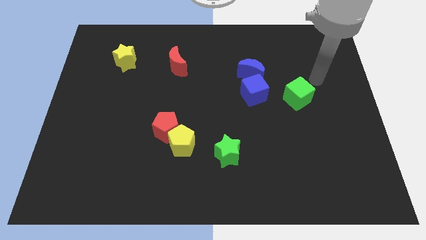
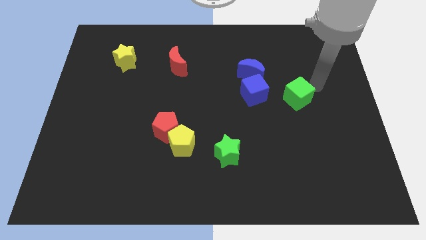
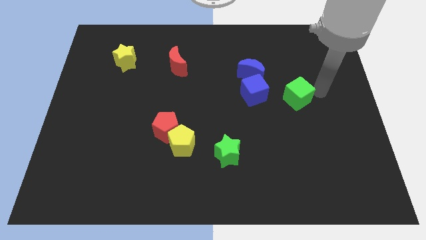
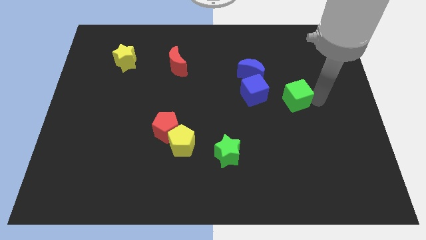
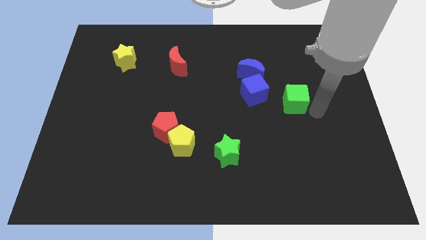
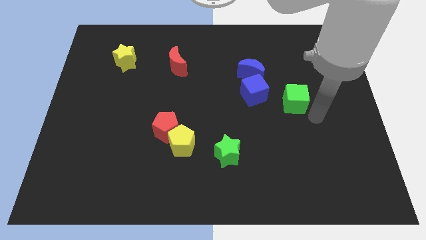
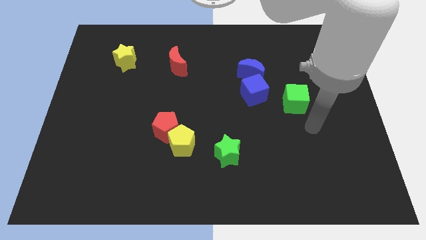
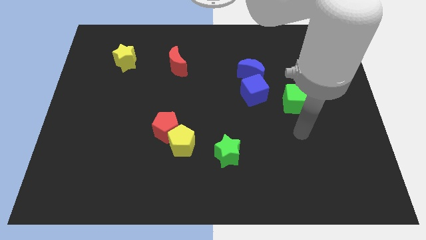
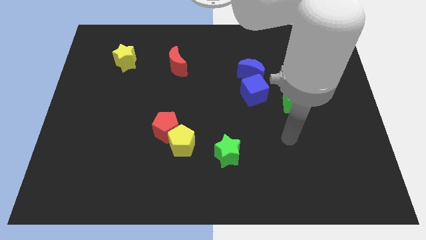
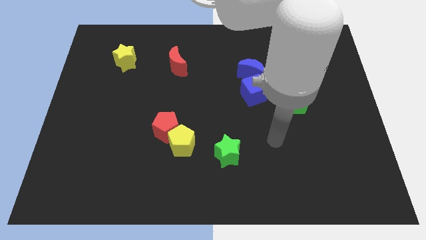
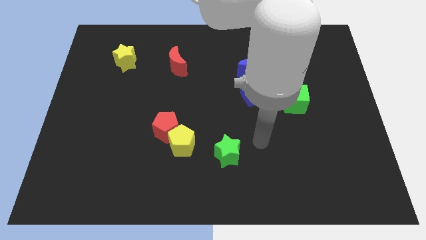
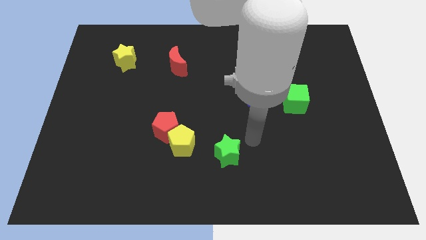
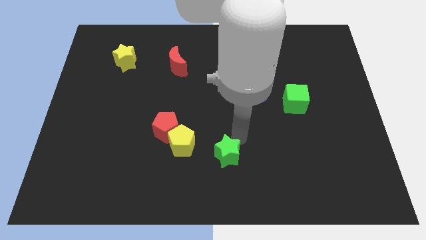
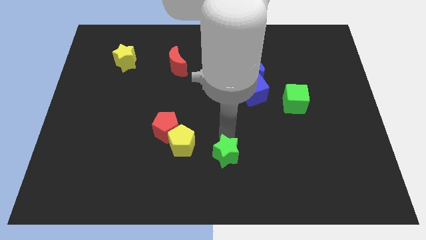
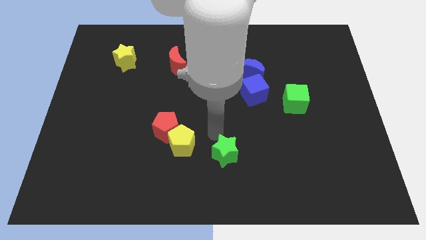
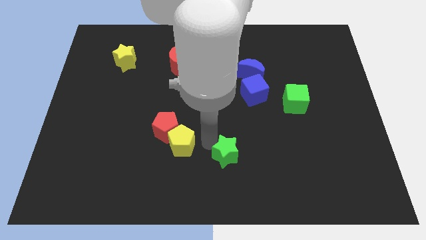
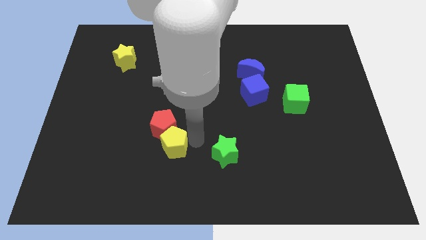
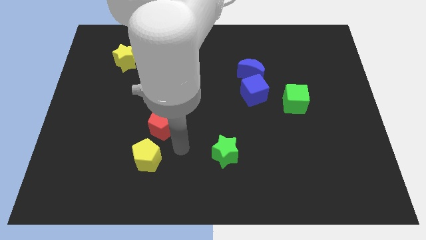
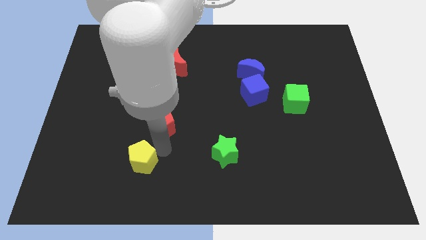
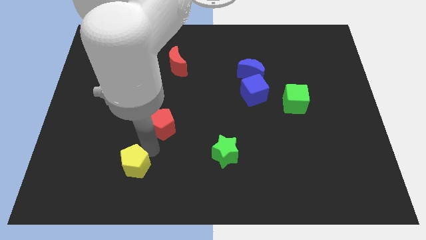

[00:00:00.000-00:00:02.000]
separate the red pentagon from the yellow pentagon

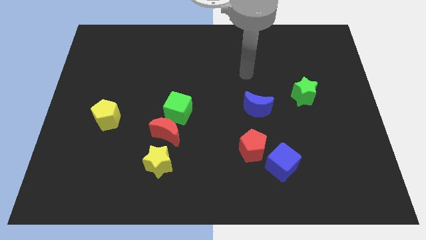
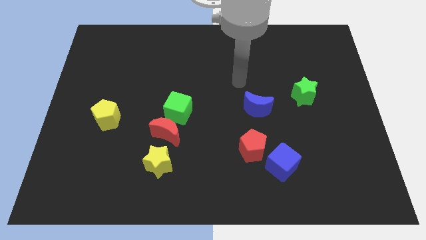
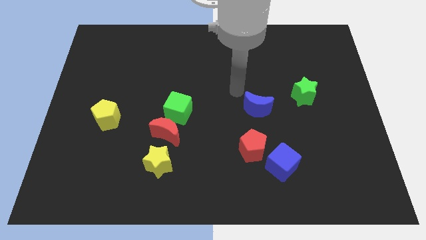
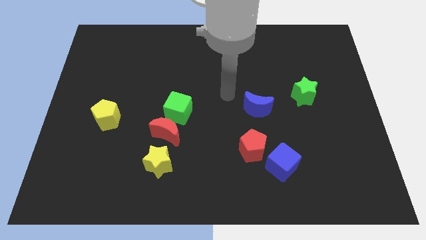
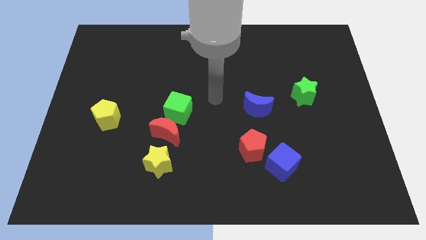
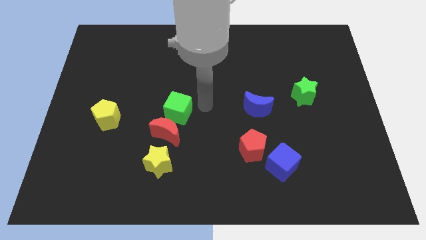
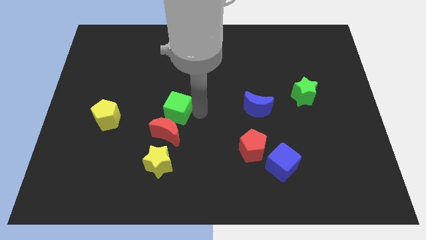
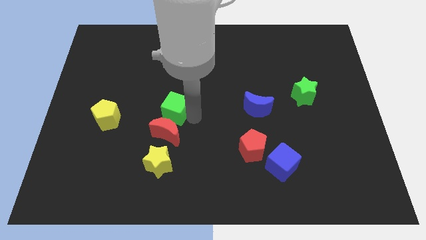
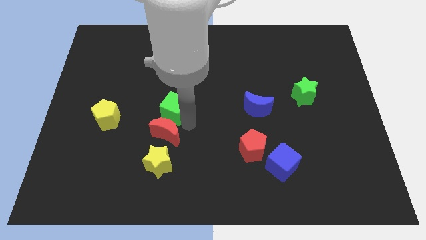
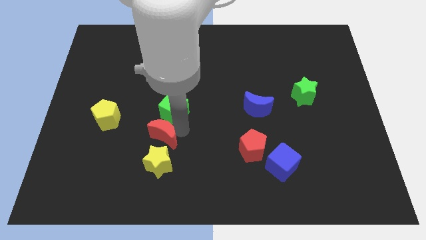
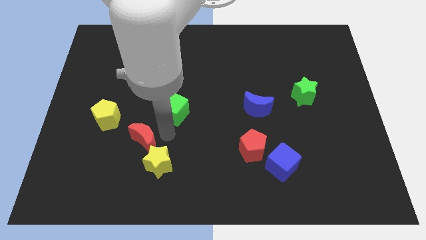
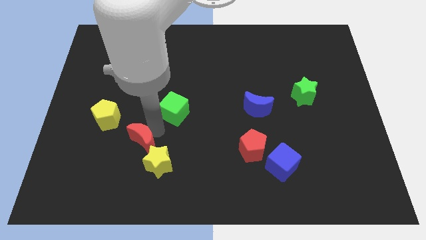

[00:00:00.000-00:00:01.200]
pull the green cube apart from the red moon

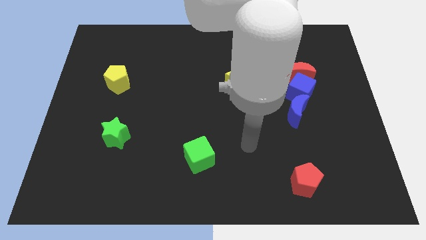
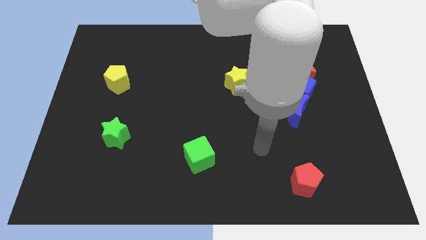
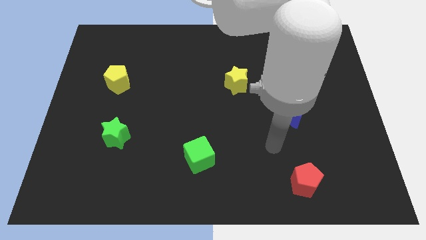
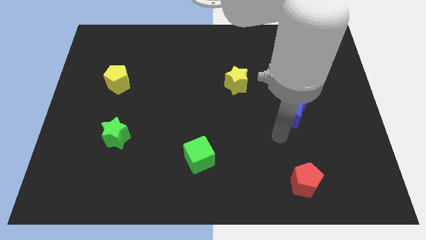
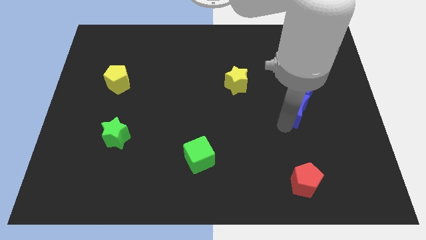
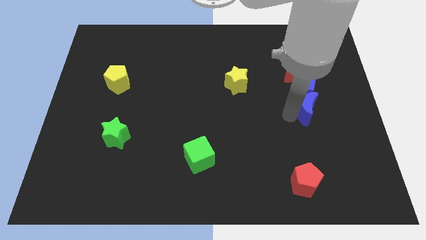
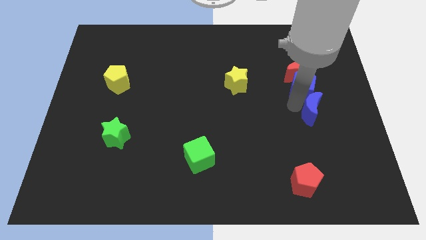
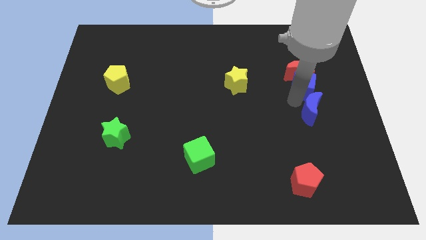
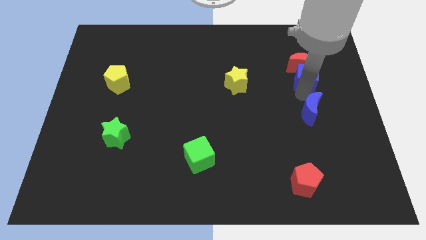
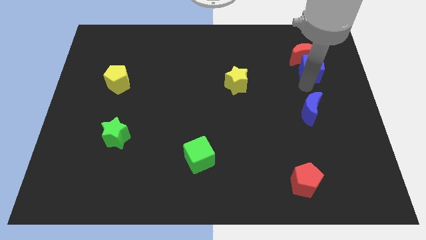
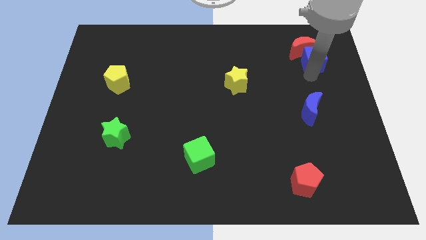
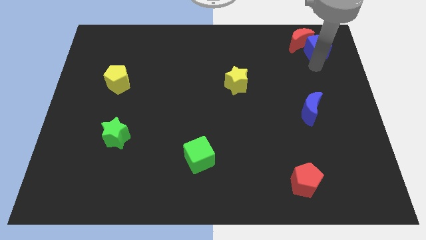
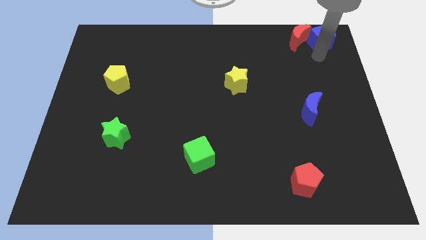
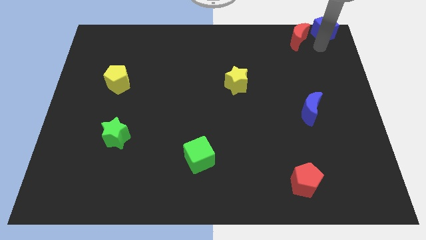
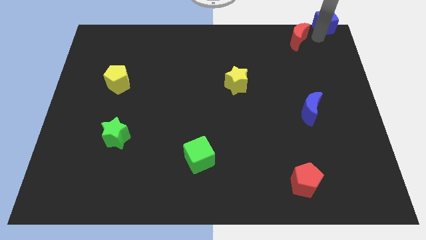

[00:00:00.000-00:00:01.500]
pull the red moon apart from the blue cube

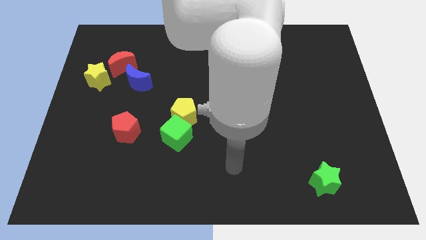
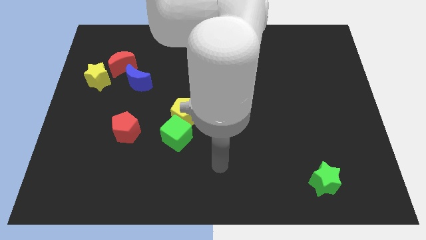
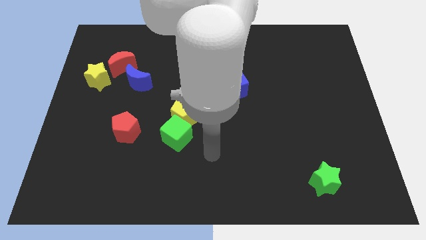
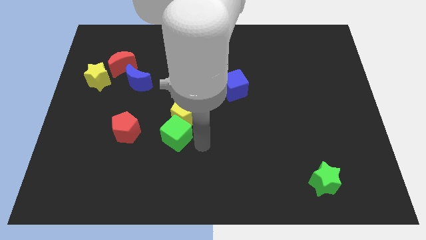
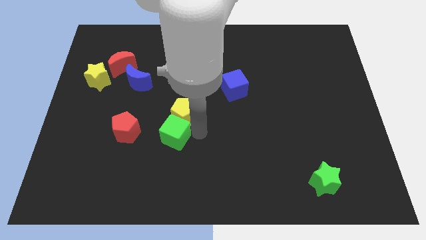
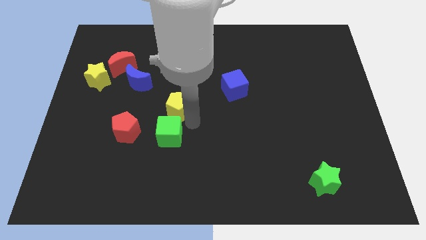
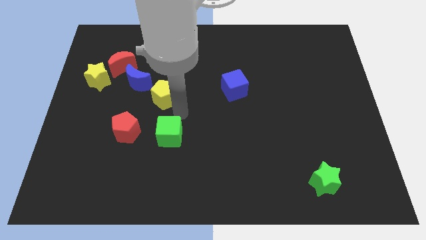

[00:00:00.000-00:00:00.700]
pull the green cube apart from the yellow pentagon

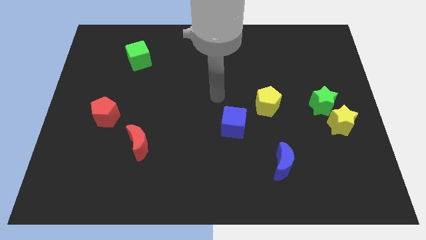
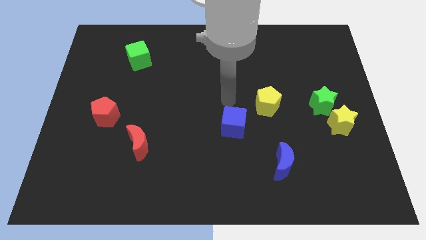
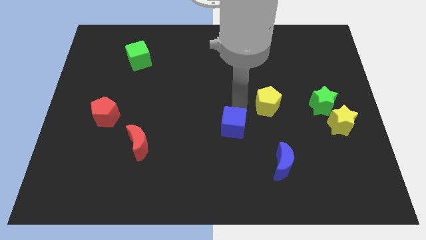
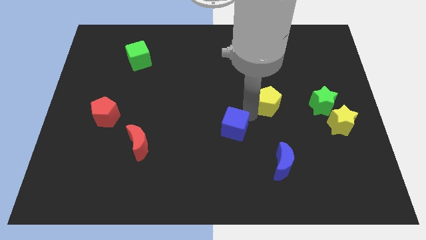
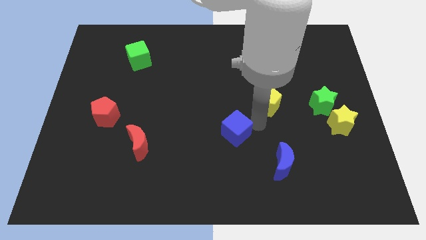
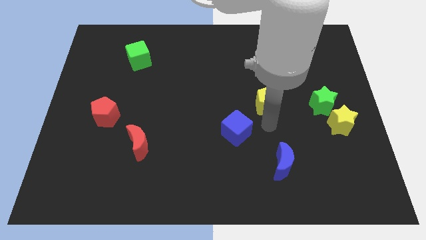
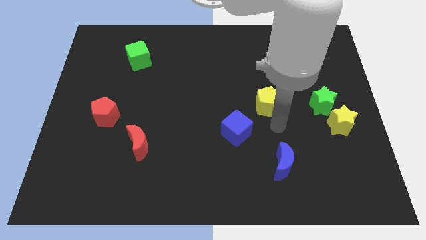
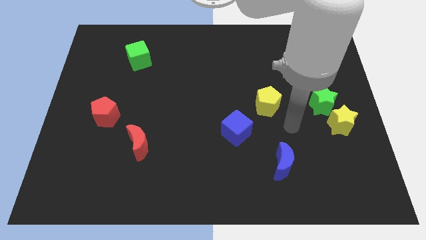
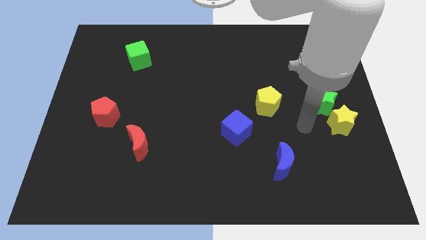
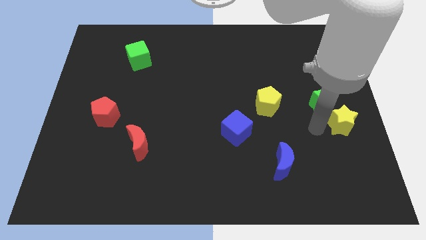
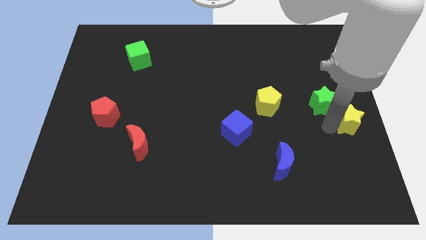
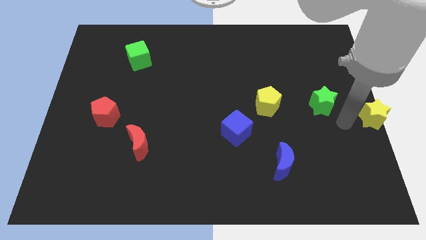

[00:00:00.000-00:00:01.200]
move the green star away from the yellow star

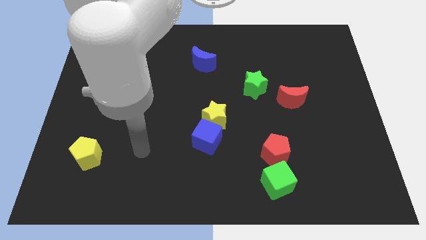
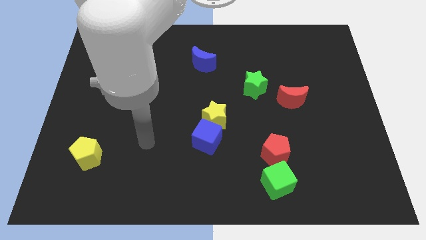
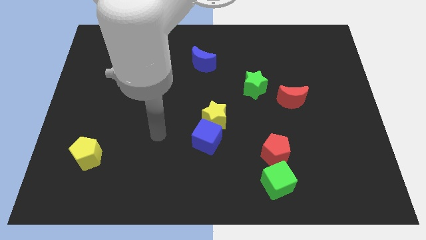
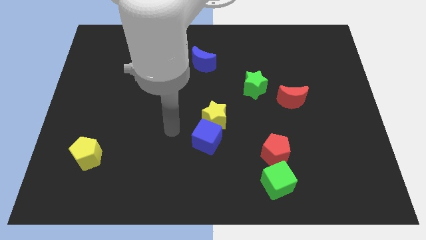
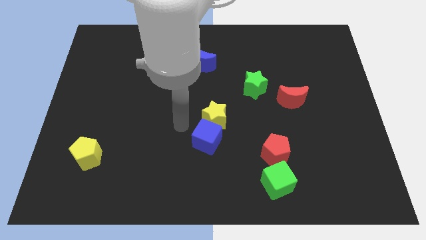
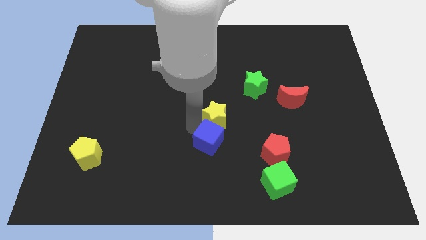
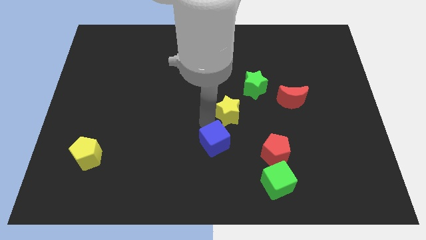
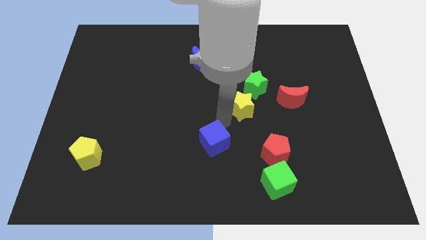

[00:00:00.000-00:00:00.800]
separate the blue cube from the yellow star

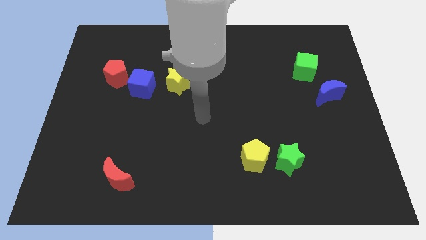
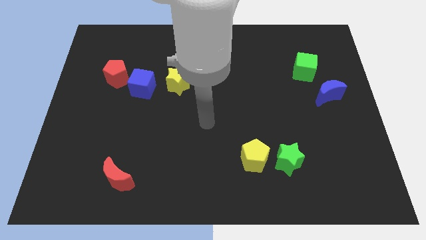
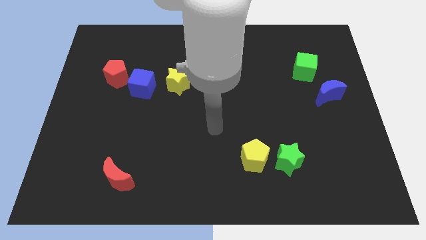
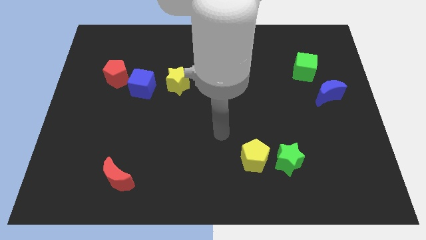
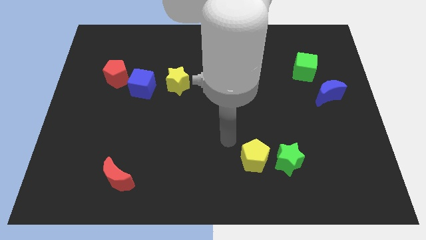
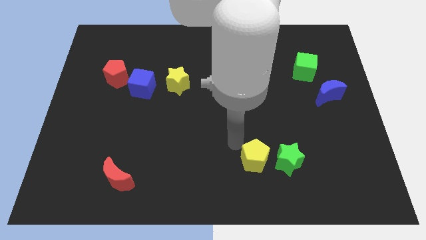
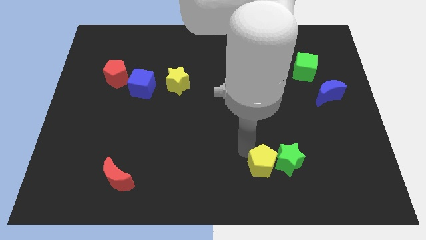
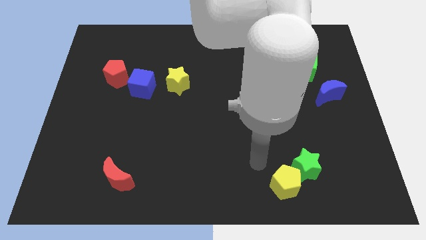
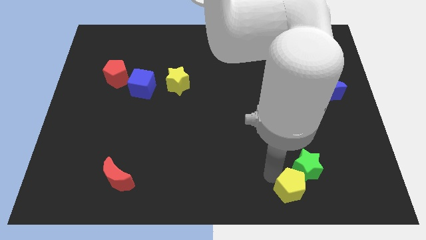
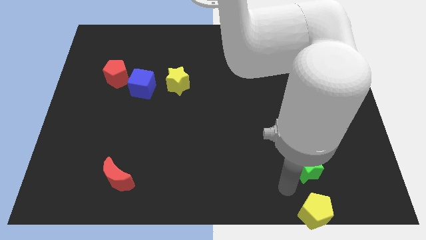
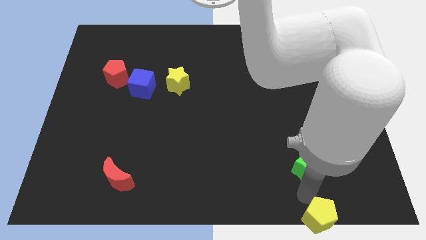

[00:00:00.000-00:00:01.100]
separate the green star from the yellow pentagon

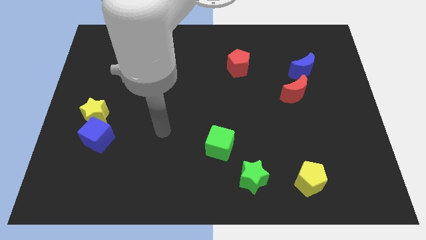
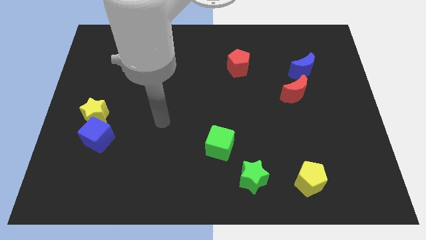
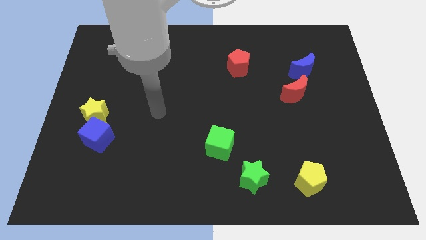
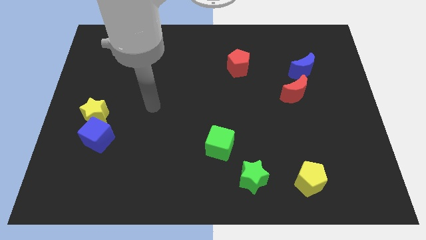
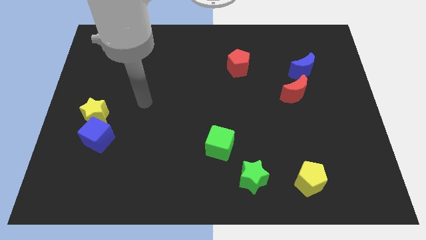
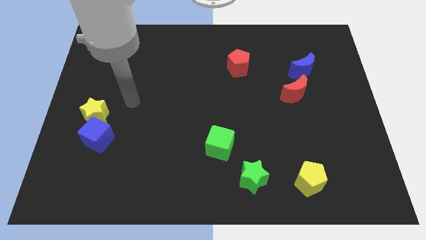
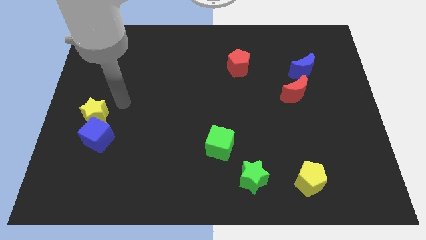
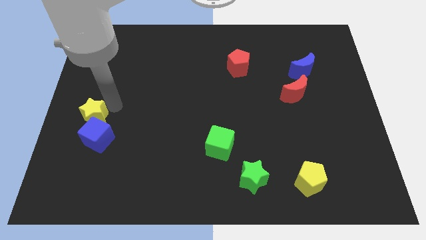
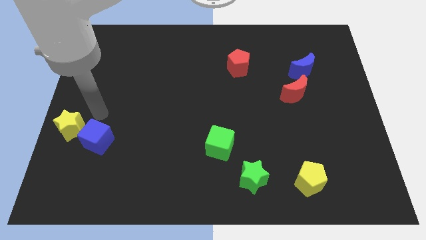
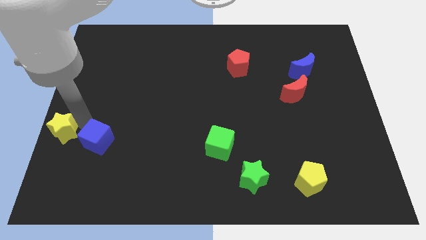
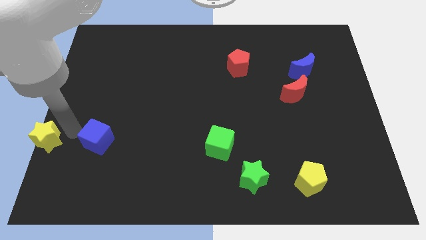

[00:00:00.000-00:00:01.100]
pull the blue cube apart from the yellow star
